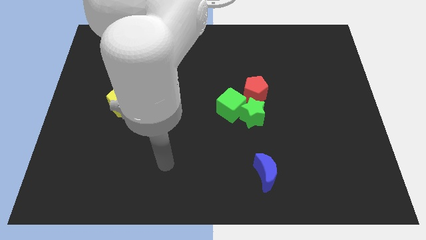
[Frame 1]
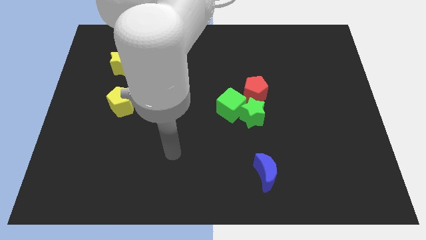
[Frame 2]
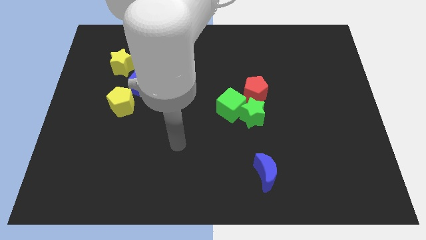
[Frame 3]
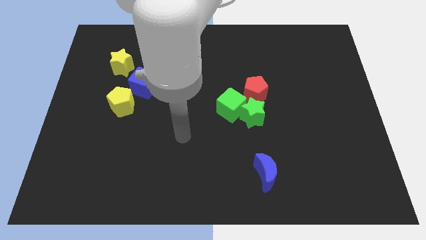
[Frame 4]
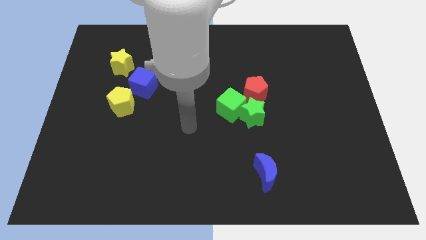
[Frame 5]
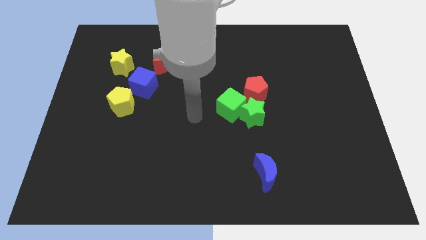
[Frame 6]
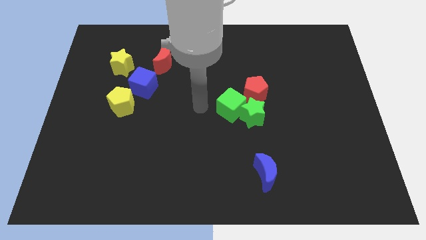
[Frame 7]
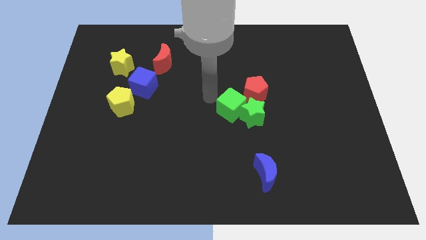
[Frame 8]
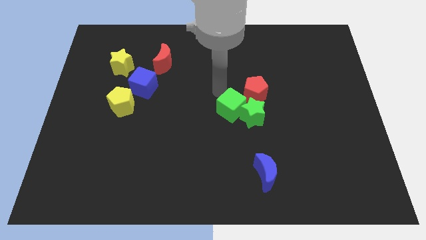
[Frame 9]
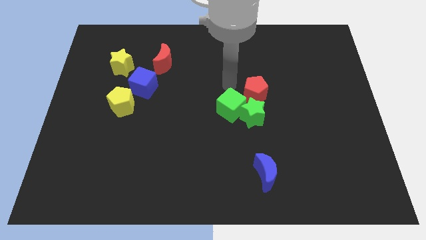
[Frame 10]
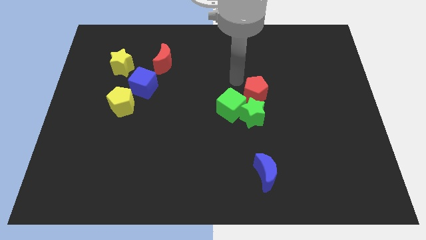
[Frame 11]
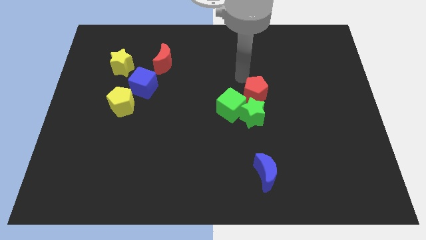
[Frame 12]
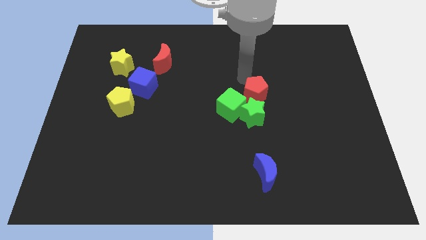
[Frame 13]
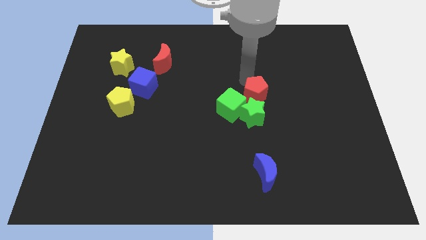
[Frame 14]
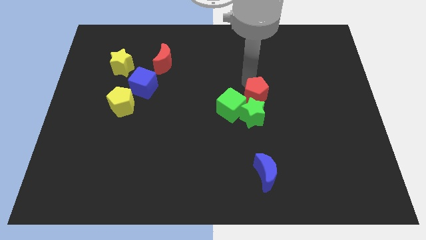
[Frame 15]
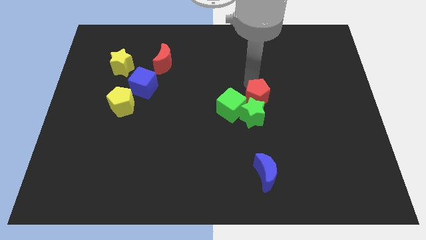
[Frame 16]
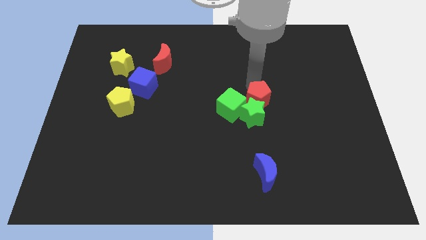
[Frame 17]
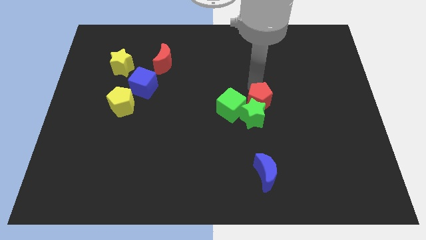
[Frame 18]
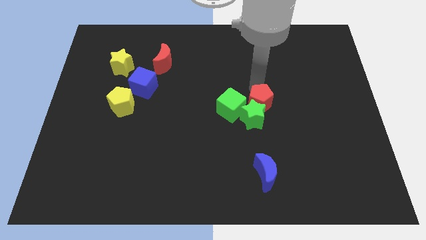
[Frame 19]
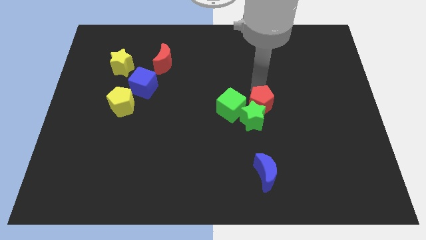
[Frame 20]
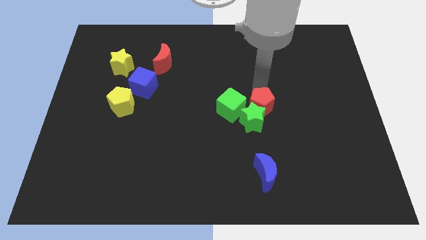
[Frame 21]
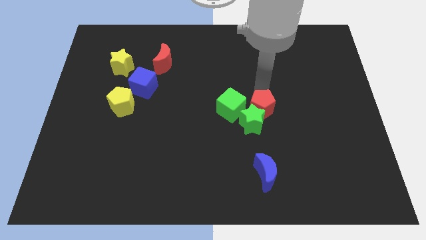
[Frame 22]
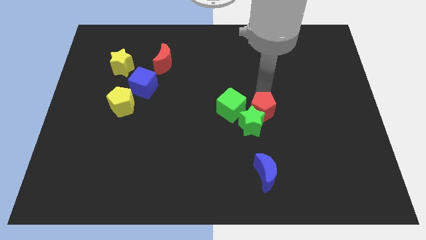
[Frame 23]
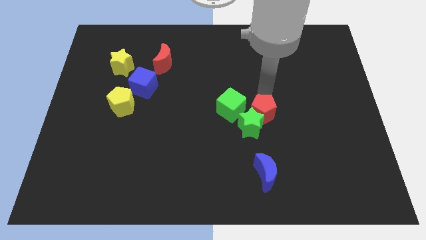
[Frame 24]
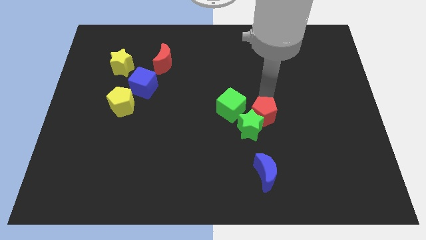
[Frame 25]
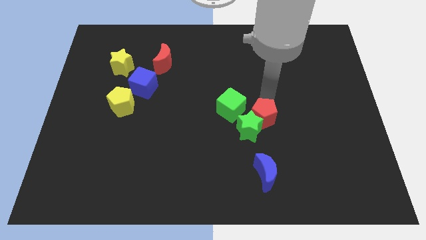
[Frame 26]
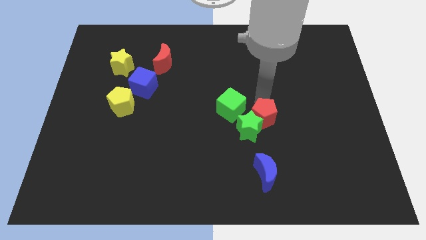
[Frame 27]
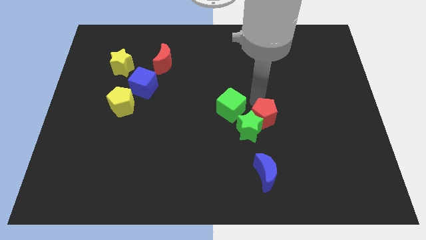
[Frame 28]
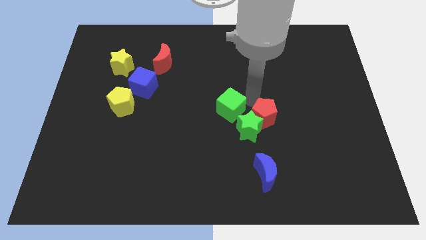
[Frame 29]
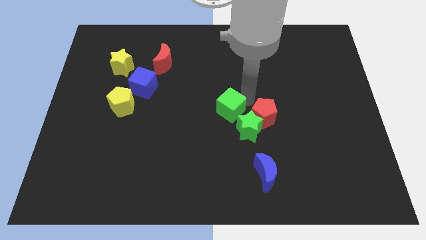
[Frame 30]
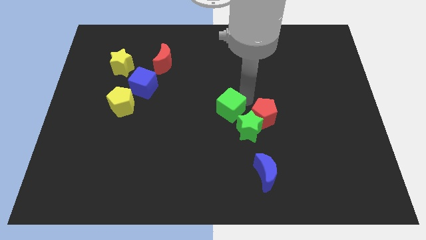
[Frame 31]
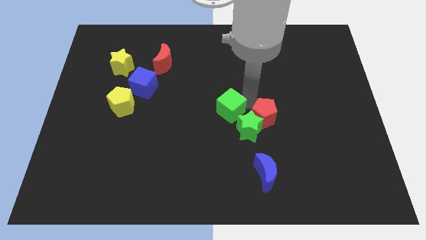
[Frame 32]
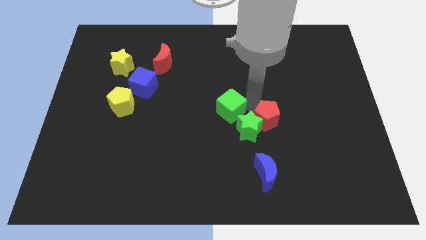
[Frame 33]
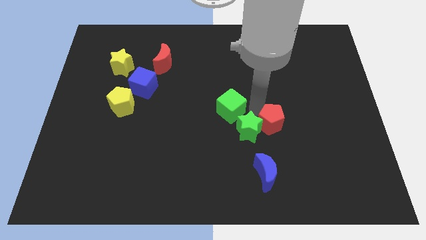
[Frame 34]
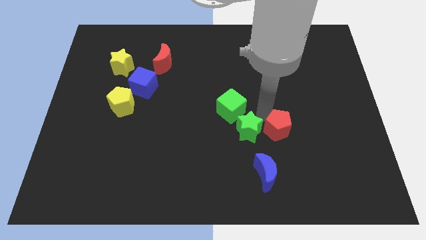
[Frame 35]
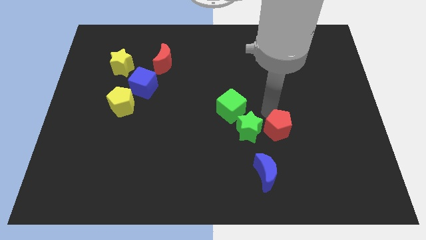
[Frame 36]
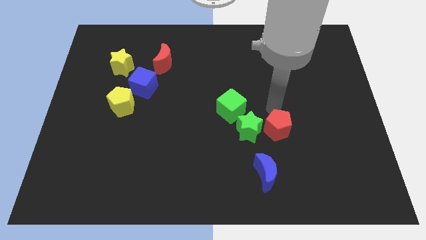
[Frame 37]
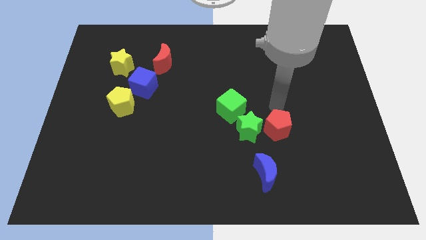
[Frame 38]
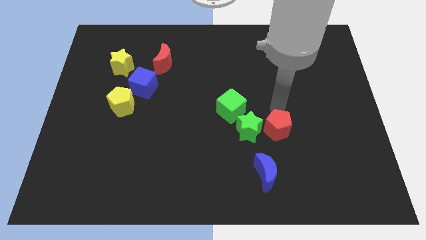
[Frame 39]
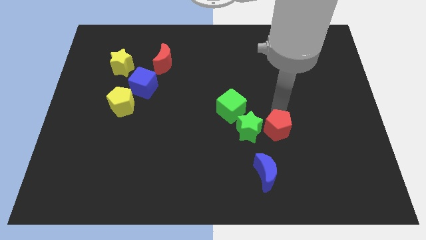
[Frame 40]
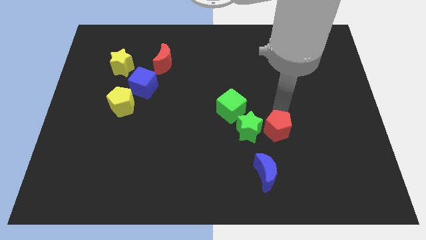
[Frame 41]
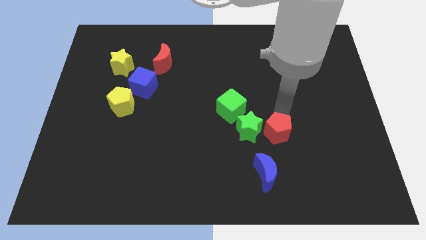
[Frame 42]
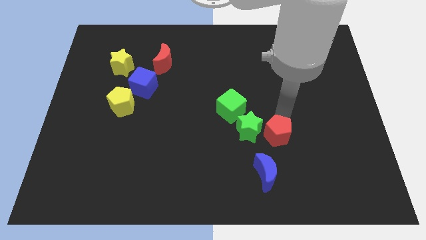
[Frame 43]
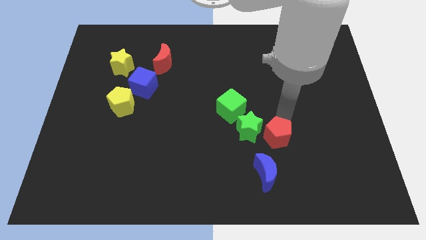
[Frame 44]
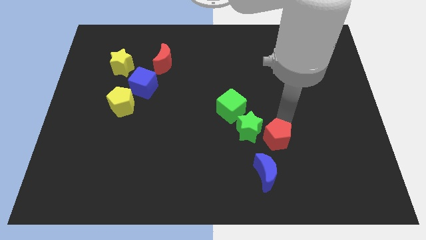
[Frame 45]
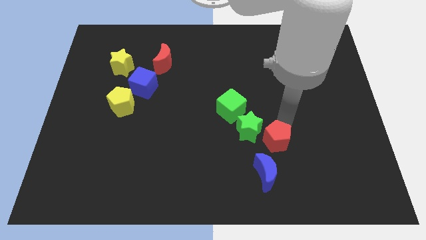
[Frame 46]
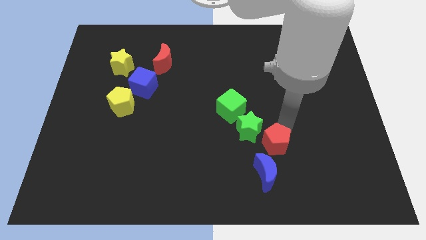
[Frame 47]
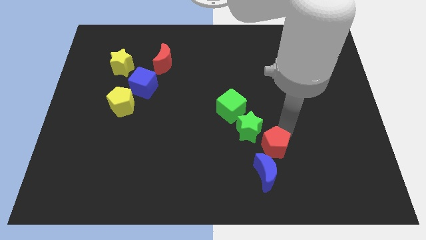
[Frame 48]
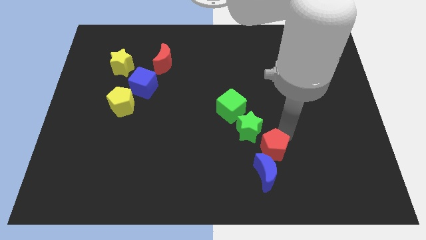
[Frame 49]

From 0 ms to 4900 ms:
put the red pentagon close to the blue moon

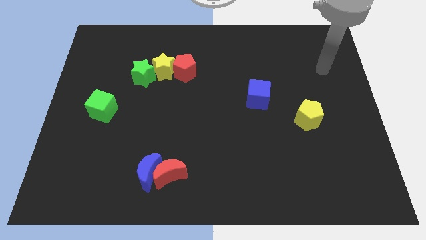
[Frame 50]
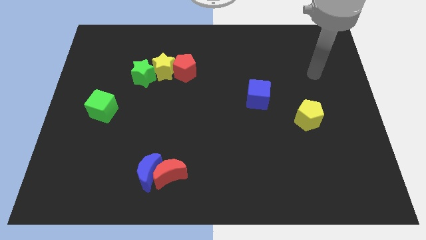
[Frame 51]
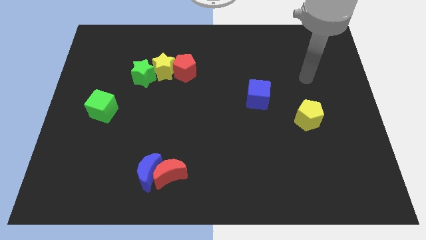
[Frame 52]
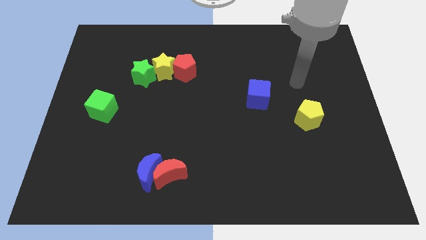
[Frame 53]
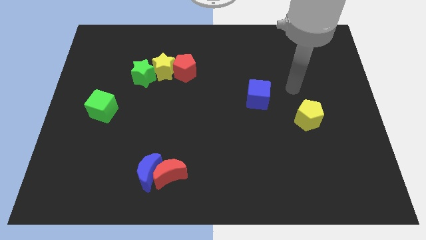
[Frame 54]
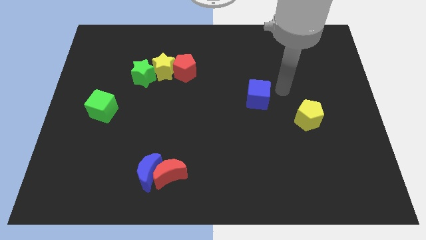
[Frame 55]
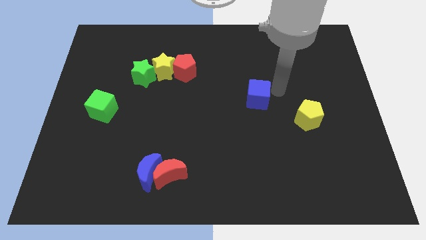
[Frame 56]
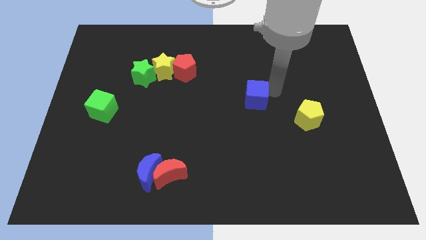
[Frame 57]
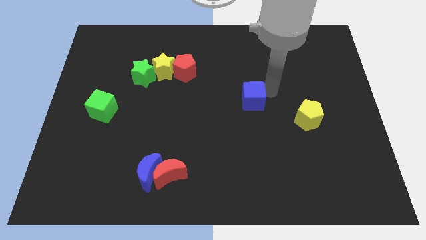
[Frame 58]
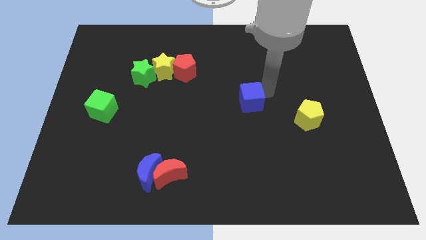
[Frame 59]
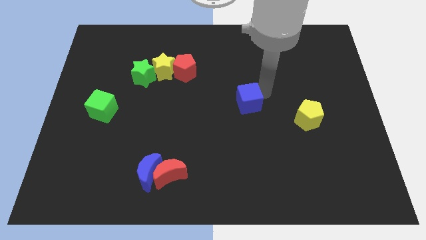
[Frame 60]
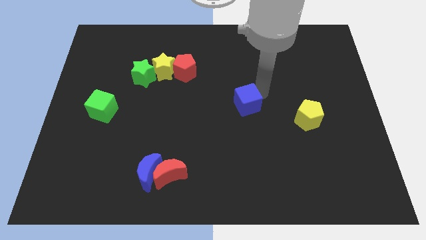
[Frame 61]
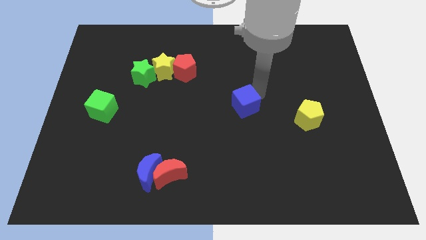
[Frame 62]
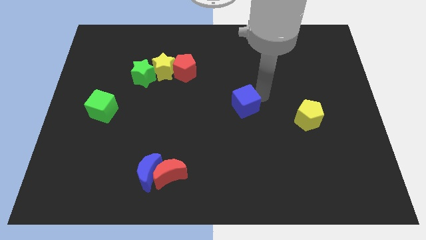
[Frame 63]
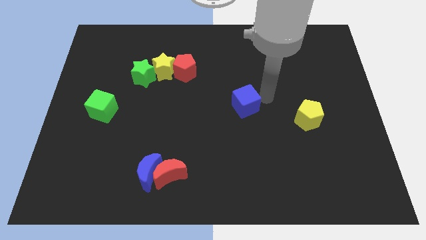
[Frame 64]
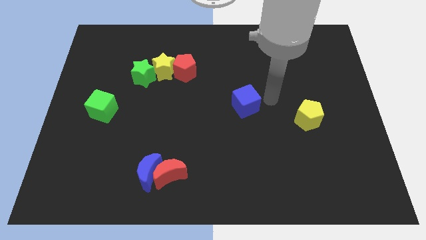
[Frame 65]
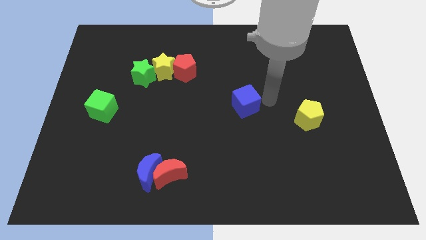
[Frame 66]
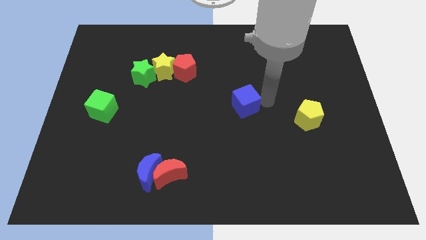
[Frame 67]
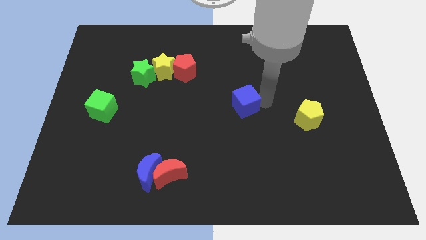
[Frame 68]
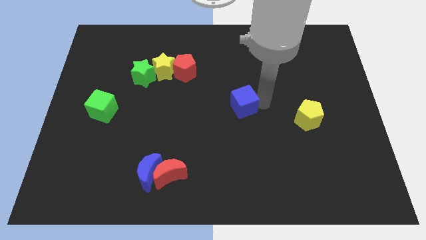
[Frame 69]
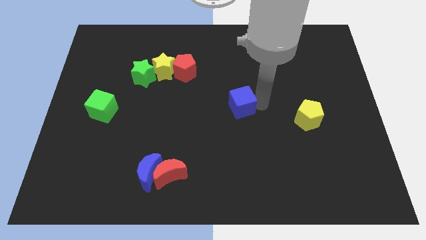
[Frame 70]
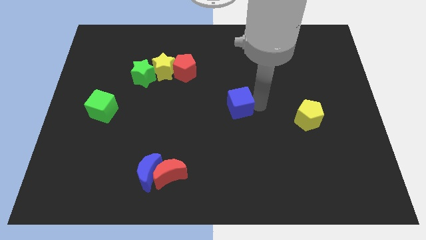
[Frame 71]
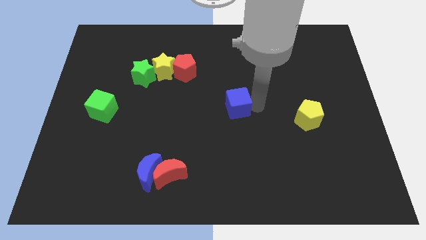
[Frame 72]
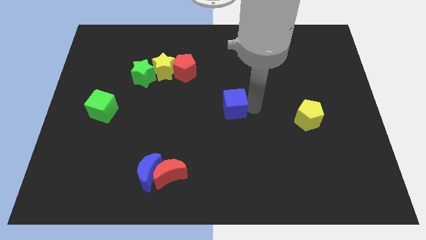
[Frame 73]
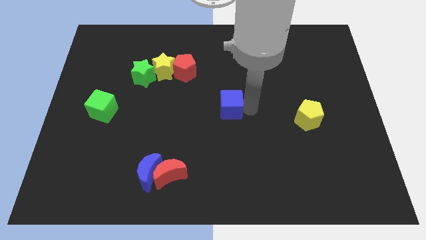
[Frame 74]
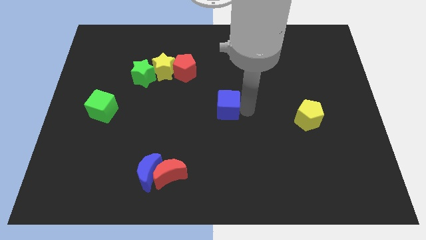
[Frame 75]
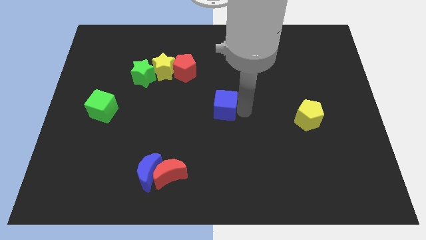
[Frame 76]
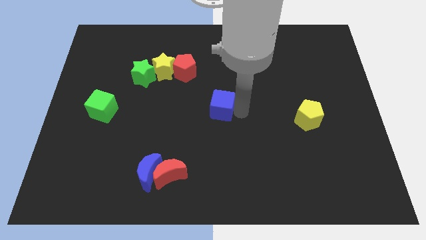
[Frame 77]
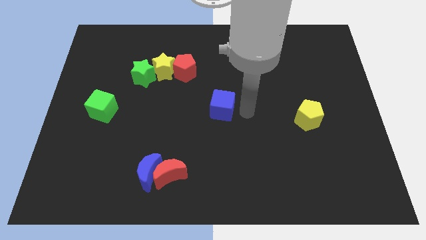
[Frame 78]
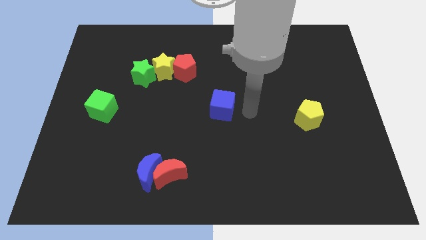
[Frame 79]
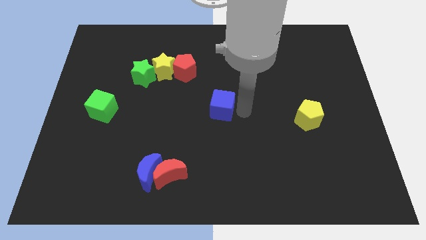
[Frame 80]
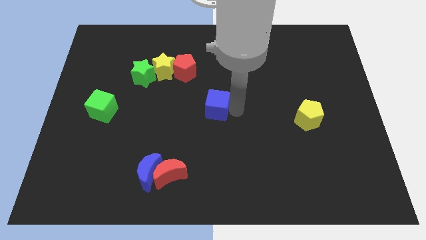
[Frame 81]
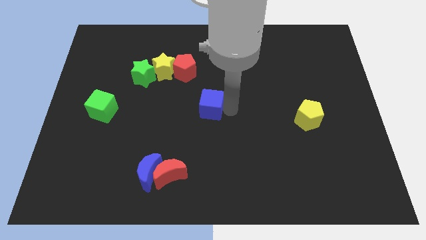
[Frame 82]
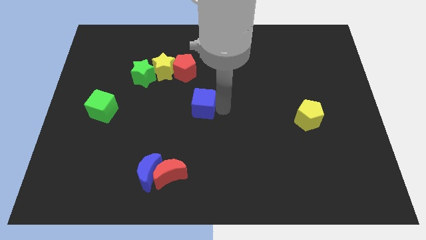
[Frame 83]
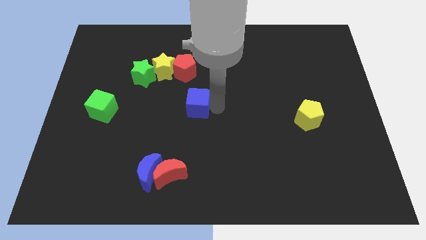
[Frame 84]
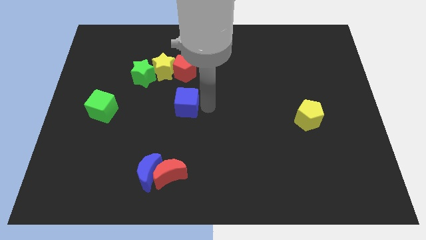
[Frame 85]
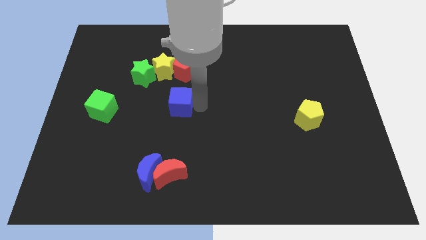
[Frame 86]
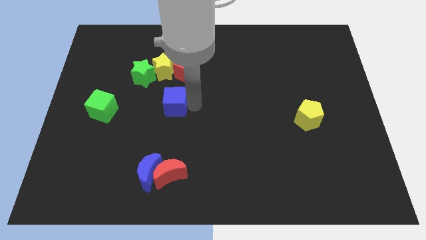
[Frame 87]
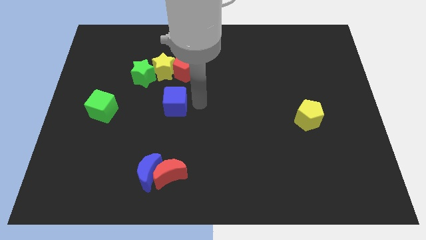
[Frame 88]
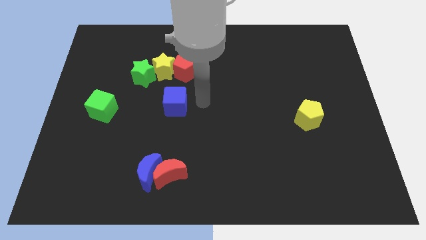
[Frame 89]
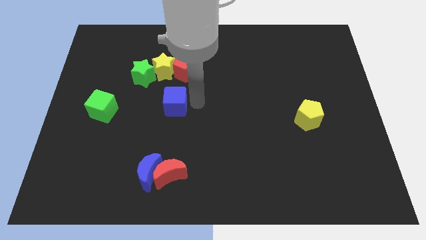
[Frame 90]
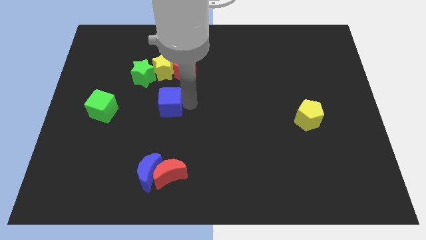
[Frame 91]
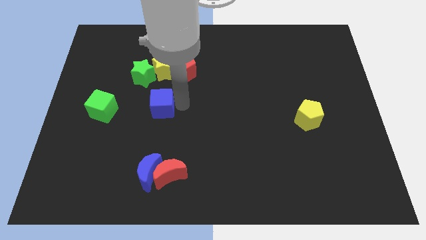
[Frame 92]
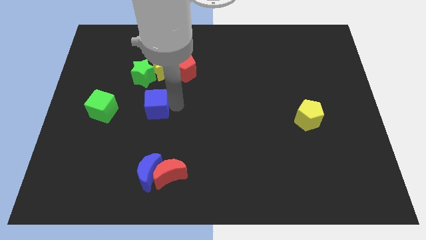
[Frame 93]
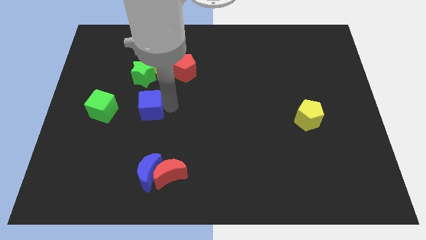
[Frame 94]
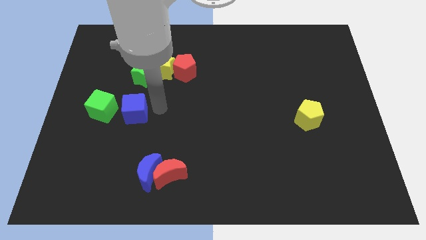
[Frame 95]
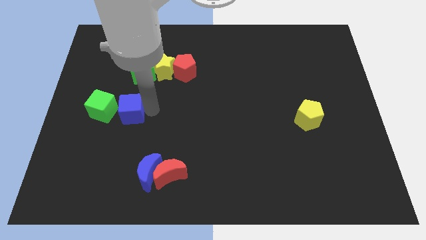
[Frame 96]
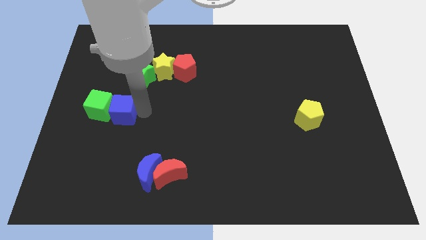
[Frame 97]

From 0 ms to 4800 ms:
put the blue cube to the green cube
